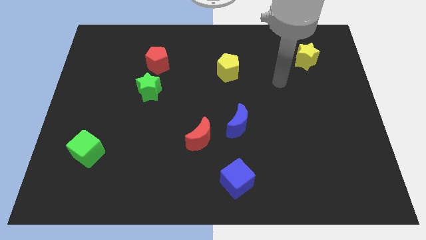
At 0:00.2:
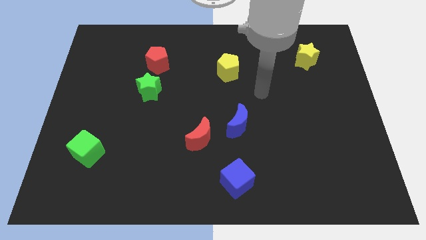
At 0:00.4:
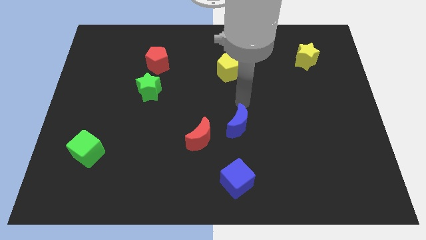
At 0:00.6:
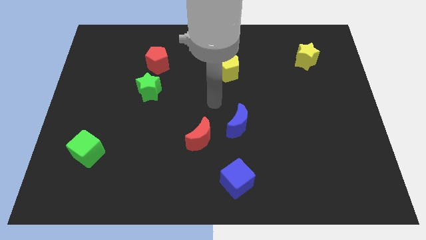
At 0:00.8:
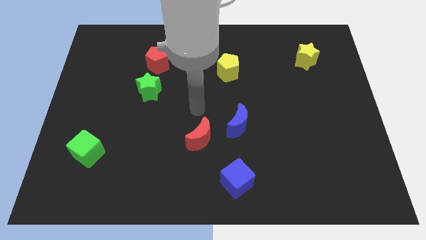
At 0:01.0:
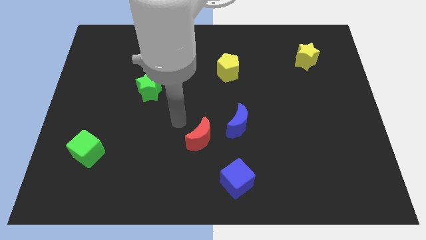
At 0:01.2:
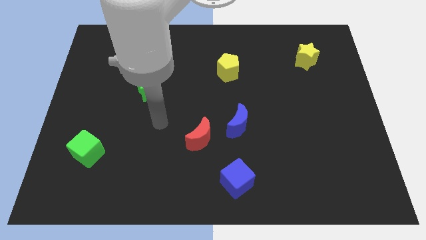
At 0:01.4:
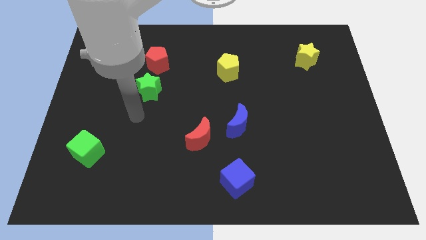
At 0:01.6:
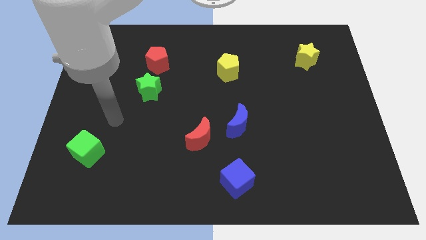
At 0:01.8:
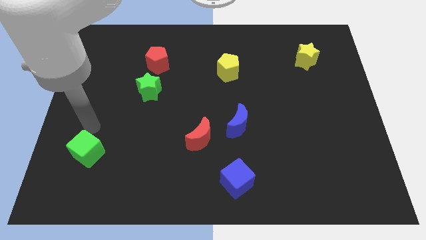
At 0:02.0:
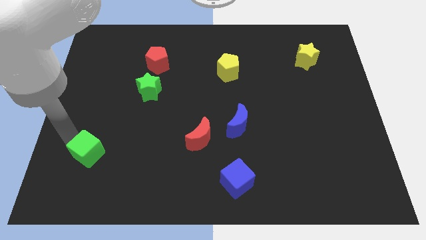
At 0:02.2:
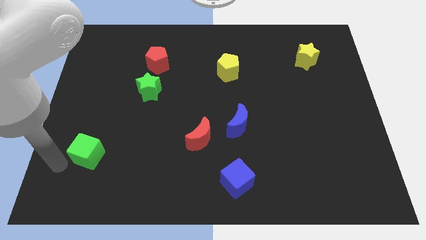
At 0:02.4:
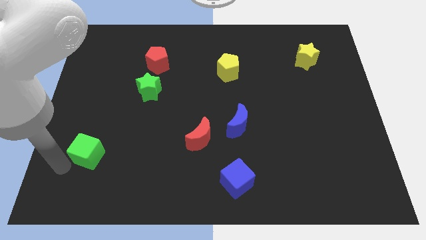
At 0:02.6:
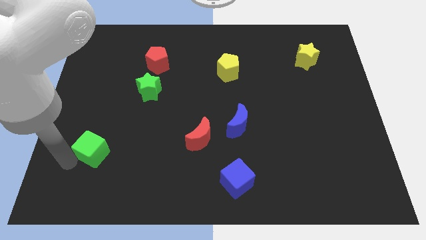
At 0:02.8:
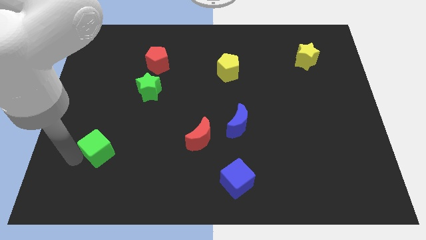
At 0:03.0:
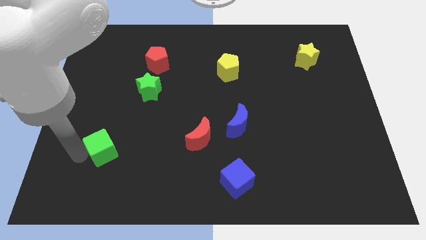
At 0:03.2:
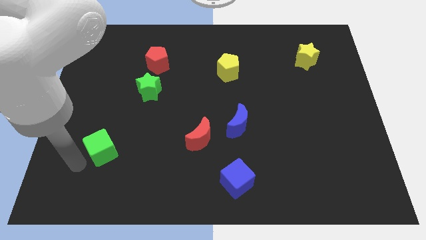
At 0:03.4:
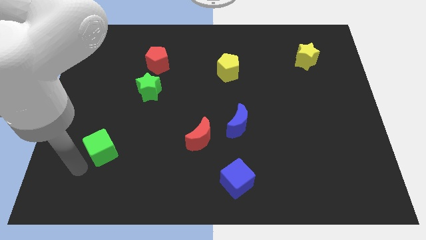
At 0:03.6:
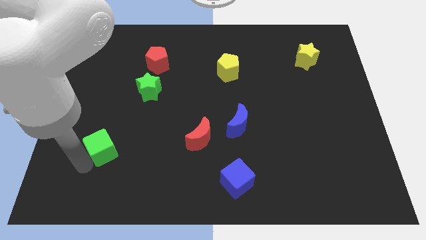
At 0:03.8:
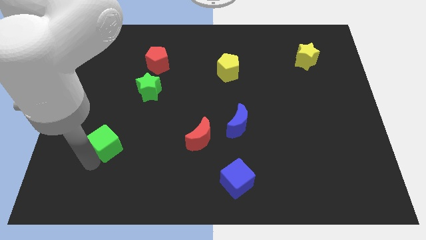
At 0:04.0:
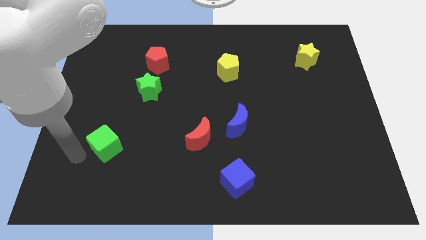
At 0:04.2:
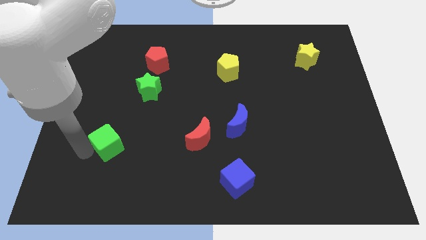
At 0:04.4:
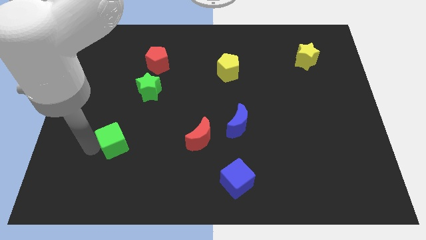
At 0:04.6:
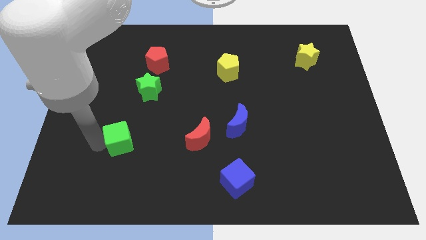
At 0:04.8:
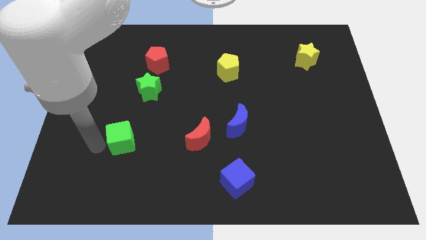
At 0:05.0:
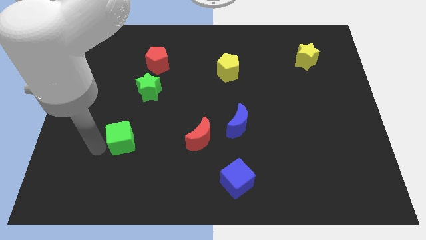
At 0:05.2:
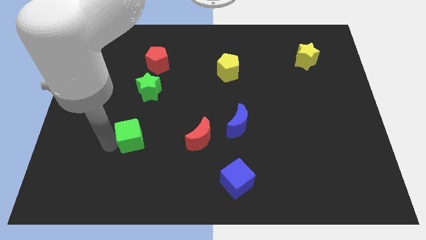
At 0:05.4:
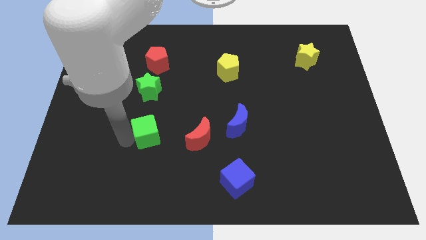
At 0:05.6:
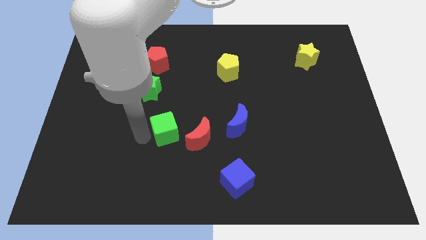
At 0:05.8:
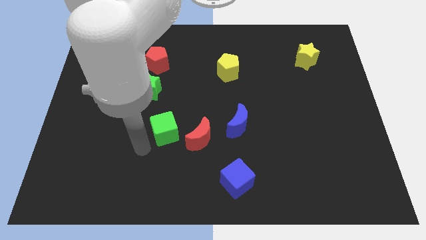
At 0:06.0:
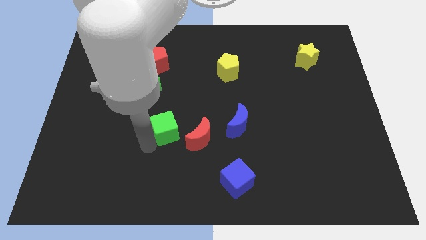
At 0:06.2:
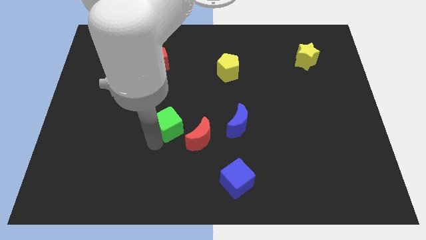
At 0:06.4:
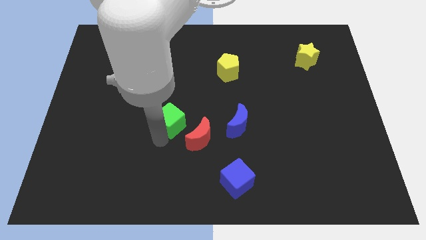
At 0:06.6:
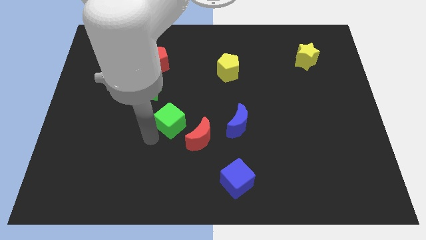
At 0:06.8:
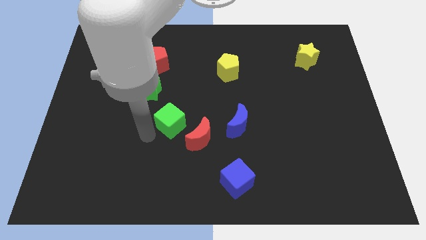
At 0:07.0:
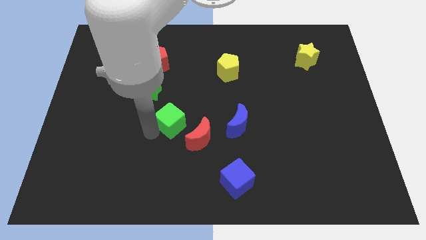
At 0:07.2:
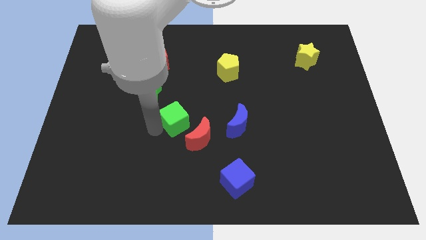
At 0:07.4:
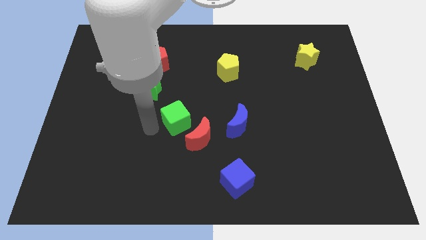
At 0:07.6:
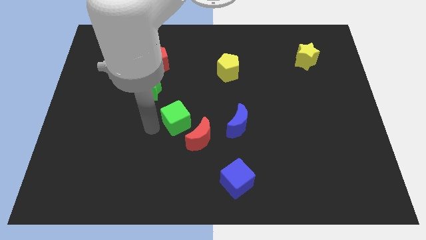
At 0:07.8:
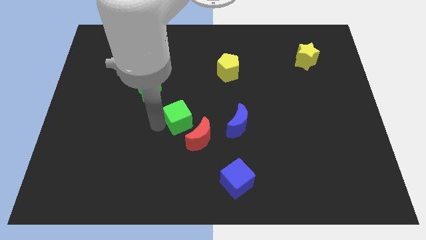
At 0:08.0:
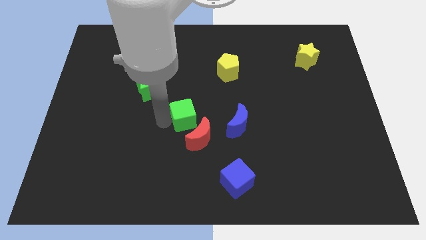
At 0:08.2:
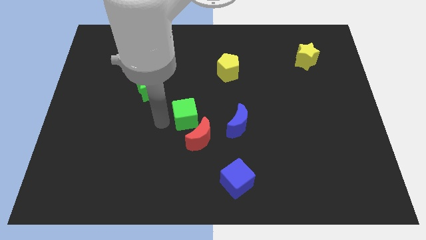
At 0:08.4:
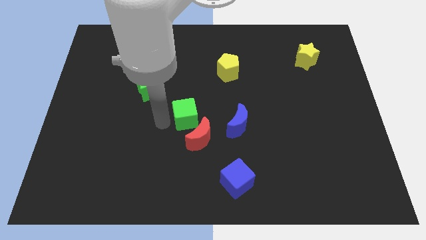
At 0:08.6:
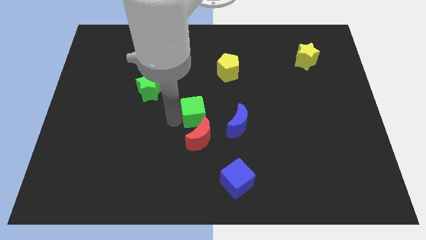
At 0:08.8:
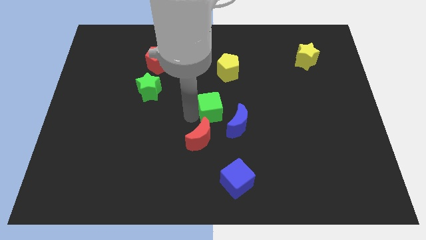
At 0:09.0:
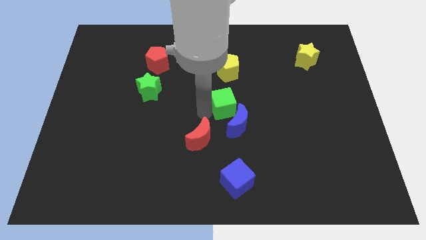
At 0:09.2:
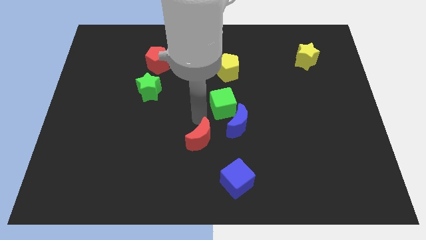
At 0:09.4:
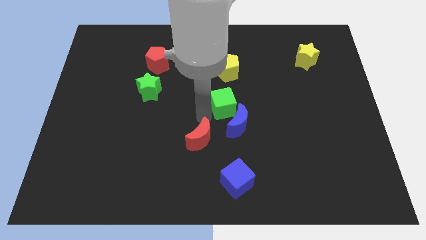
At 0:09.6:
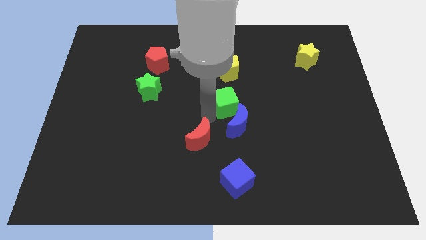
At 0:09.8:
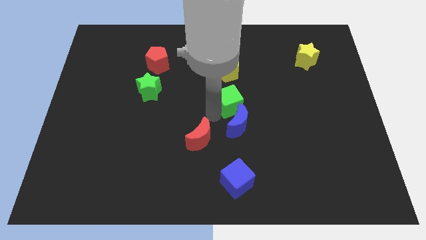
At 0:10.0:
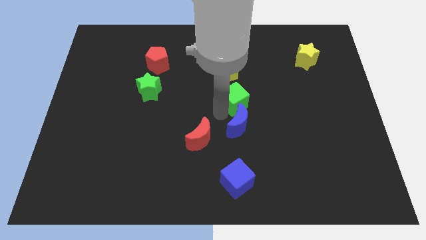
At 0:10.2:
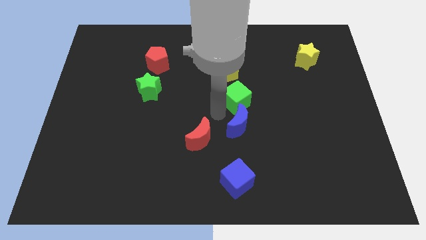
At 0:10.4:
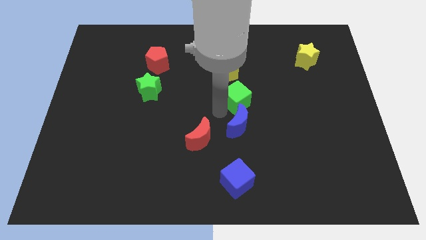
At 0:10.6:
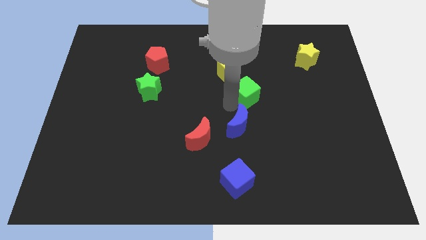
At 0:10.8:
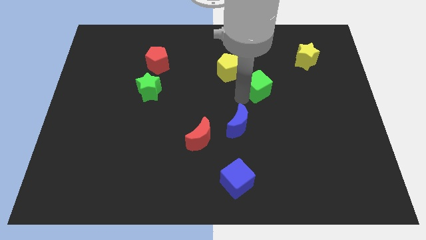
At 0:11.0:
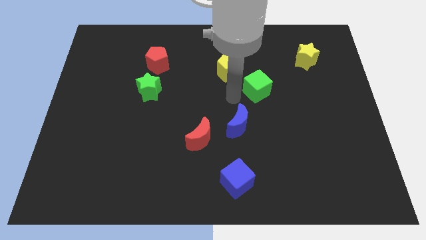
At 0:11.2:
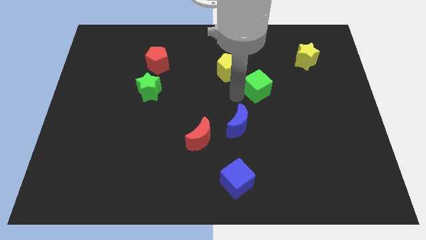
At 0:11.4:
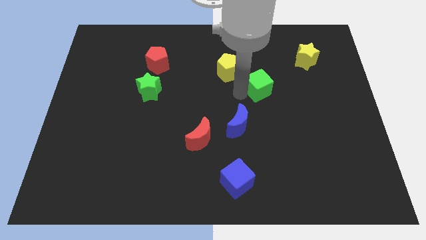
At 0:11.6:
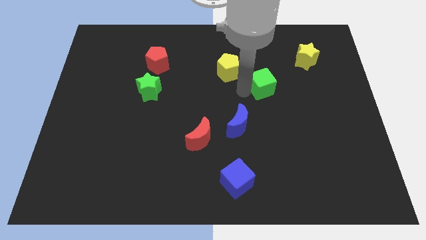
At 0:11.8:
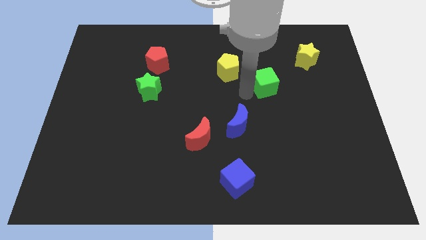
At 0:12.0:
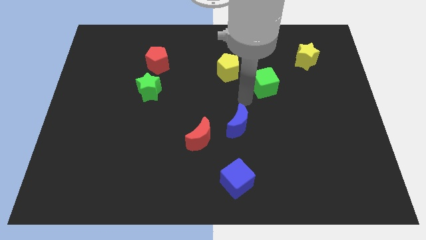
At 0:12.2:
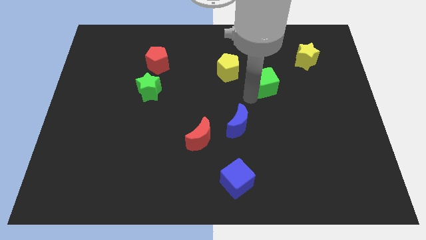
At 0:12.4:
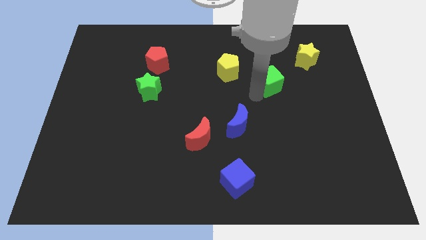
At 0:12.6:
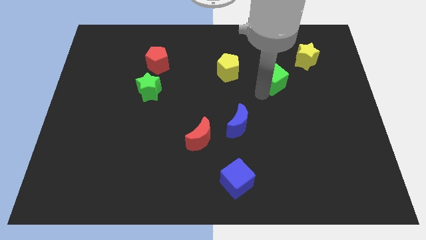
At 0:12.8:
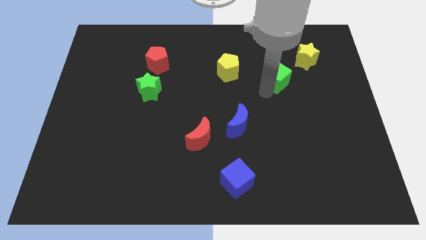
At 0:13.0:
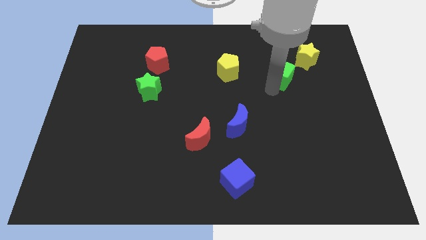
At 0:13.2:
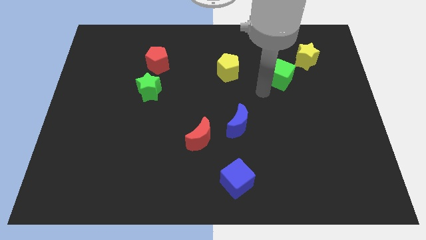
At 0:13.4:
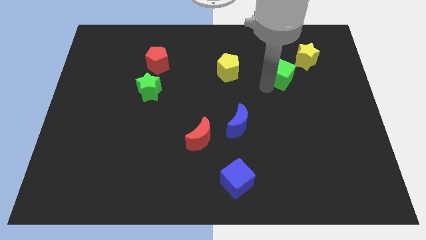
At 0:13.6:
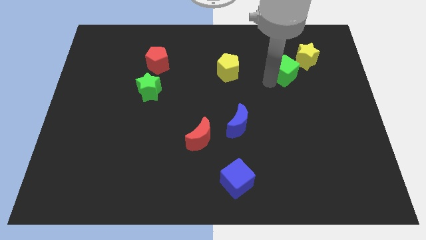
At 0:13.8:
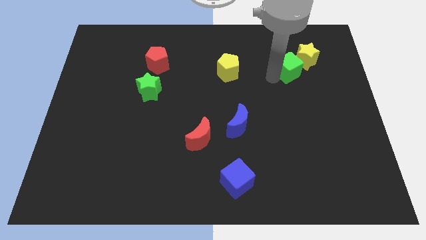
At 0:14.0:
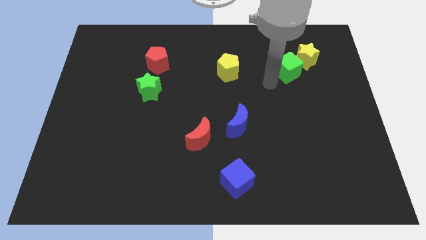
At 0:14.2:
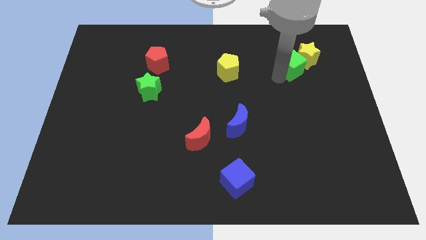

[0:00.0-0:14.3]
put the green cube next to the yellow star
